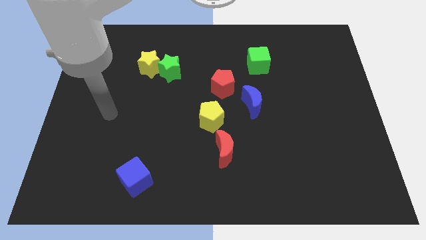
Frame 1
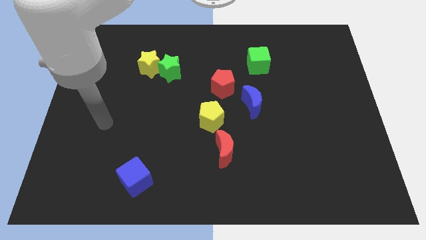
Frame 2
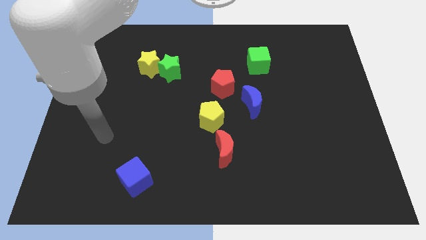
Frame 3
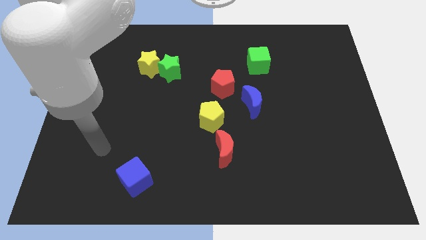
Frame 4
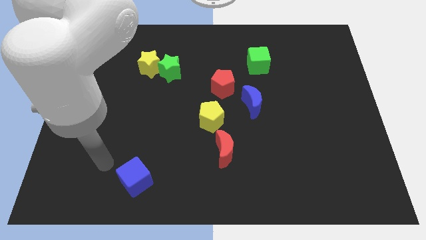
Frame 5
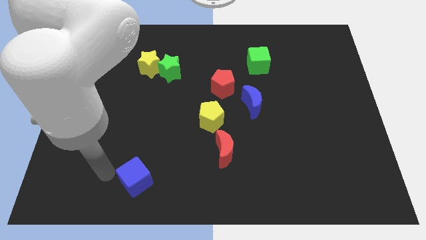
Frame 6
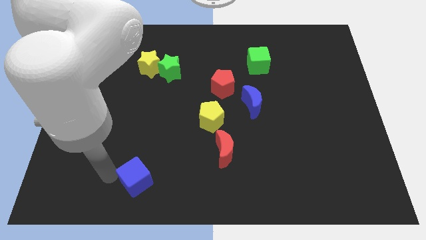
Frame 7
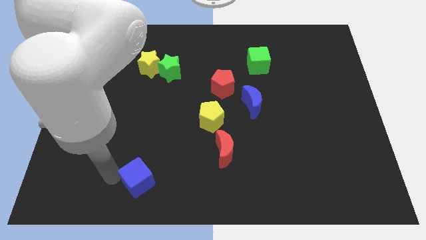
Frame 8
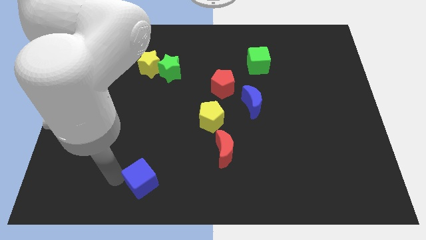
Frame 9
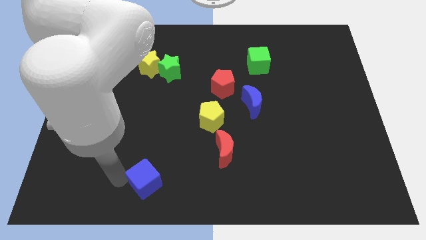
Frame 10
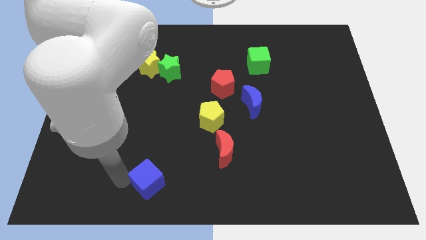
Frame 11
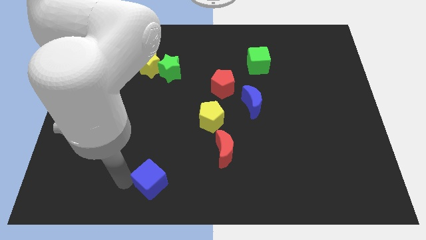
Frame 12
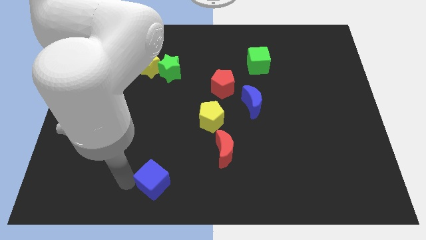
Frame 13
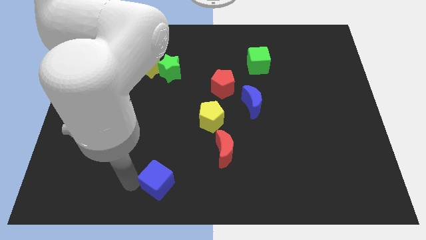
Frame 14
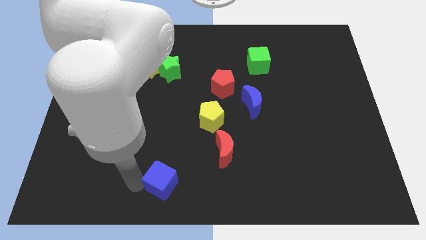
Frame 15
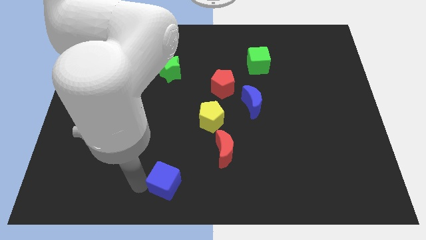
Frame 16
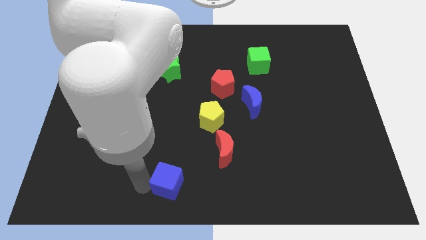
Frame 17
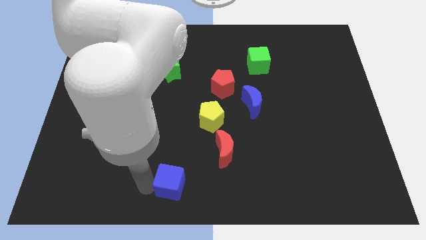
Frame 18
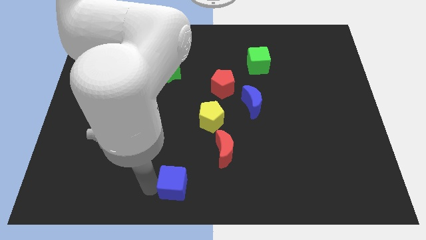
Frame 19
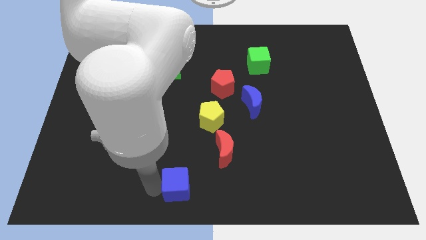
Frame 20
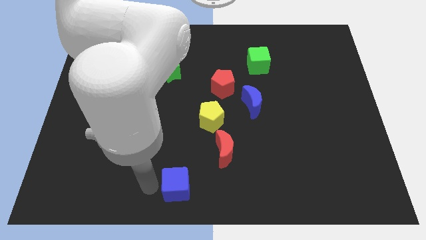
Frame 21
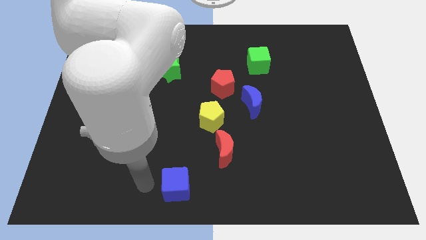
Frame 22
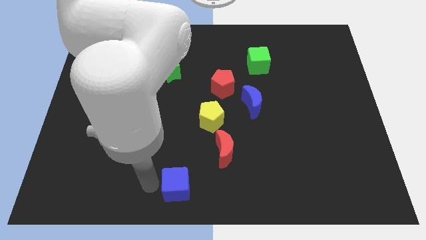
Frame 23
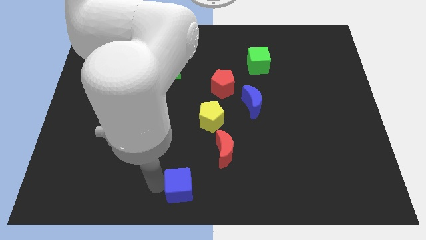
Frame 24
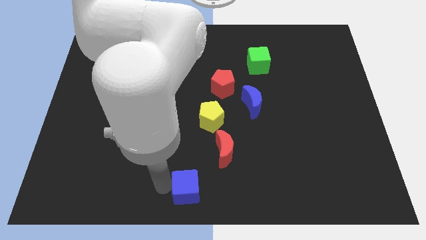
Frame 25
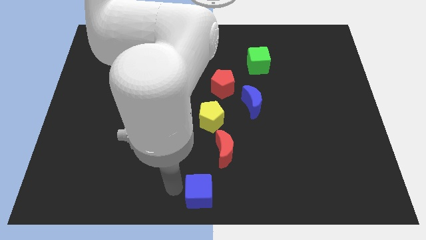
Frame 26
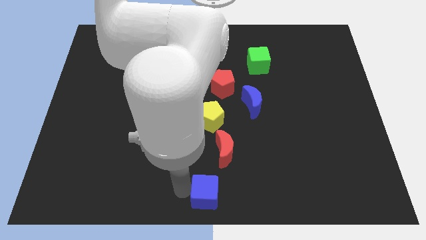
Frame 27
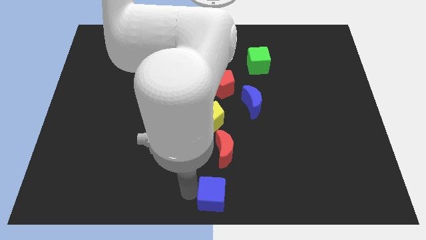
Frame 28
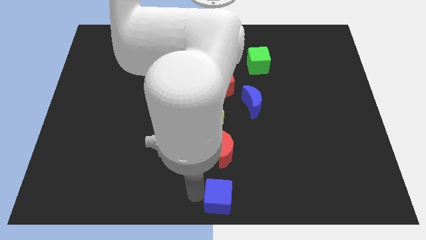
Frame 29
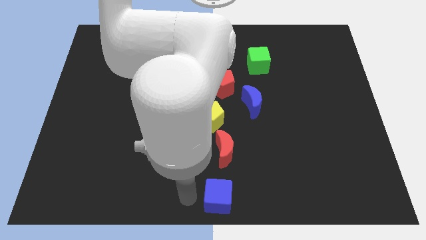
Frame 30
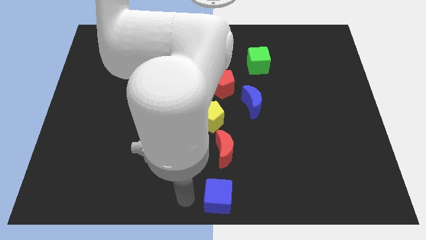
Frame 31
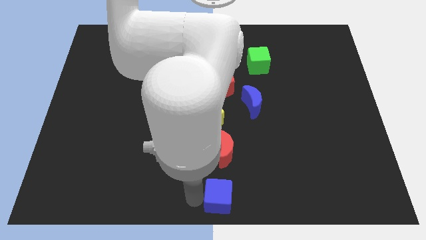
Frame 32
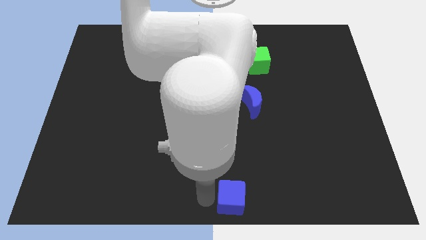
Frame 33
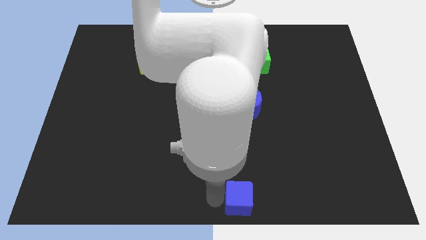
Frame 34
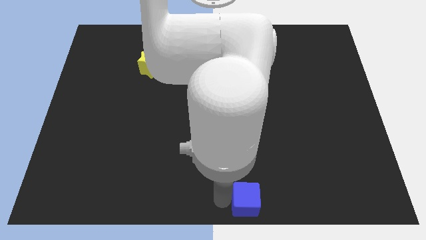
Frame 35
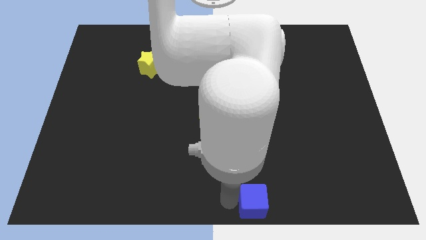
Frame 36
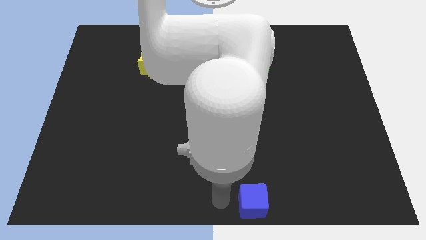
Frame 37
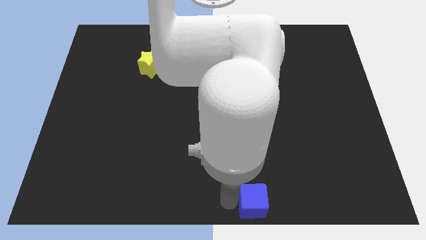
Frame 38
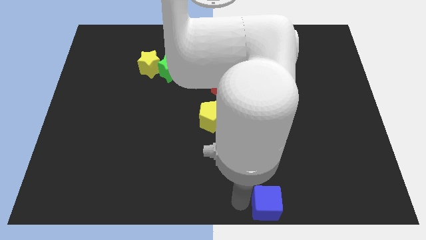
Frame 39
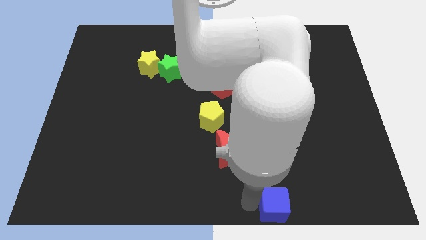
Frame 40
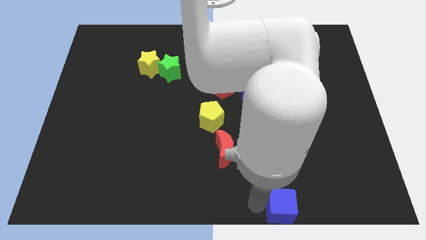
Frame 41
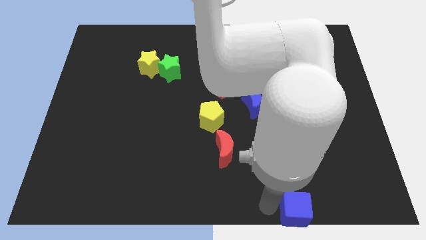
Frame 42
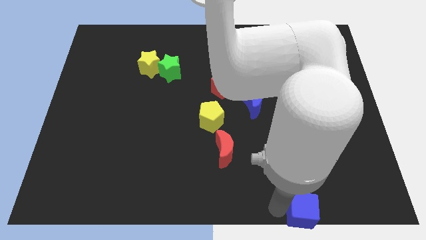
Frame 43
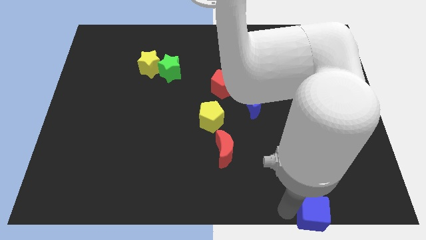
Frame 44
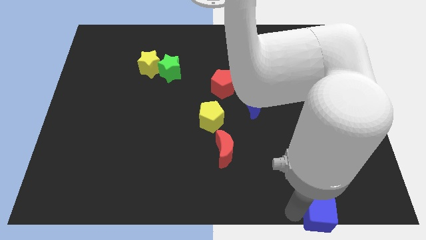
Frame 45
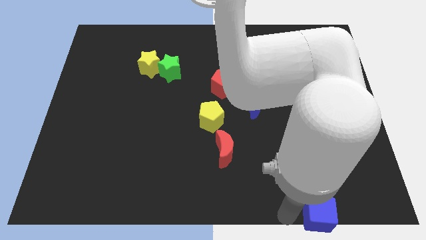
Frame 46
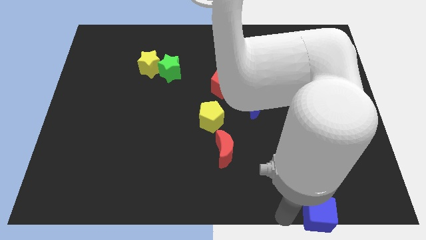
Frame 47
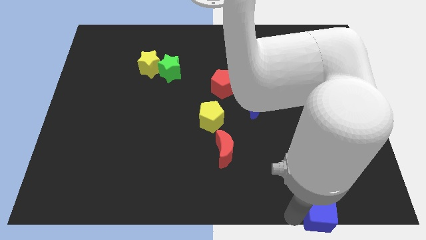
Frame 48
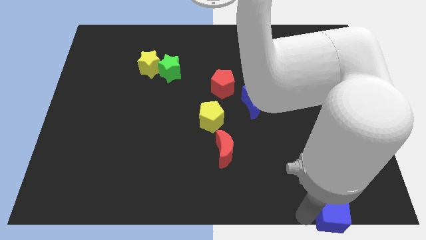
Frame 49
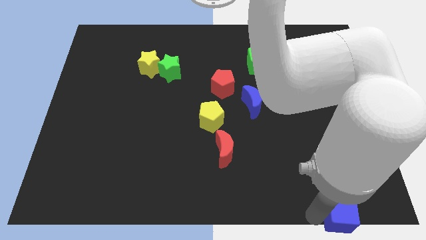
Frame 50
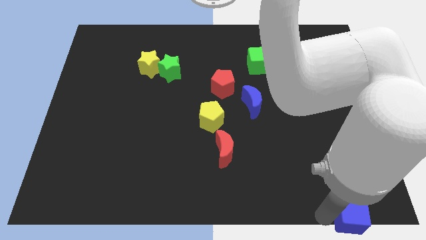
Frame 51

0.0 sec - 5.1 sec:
push the blue cube to the bottom right corner

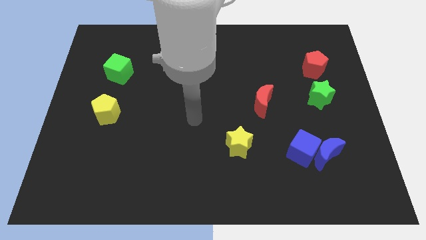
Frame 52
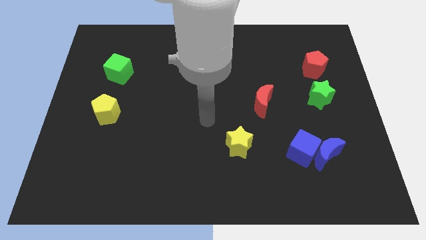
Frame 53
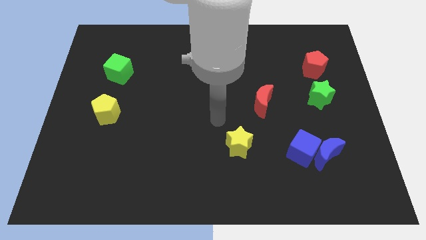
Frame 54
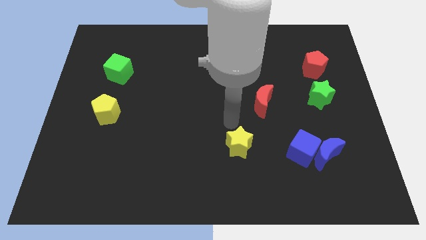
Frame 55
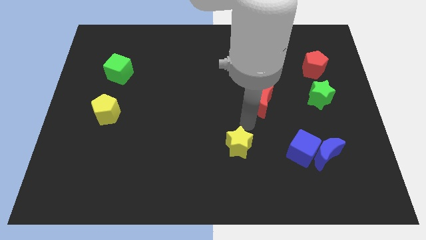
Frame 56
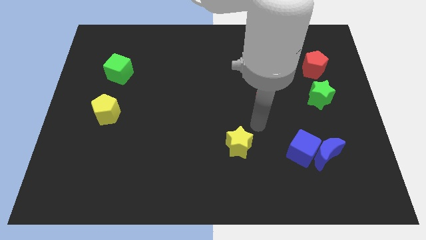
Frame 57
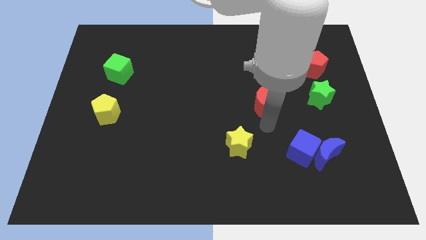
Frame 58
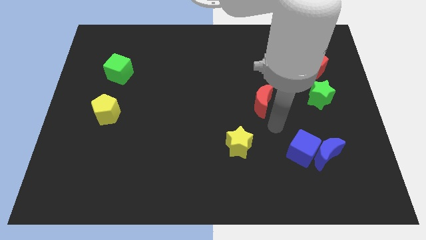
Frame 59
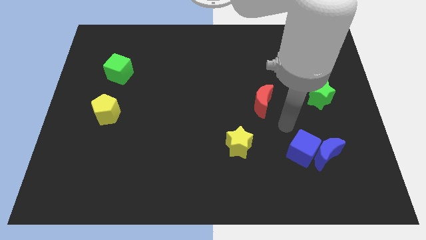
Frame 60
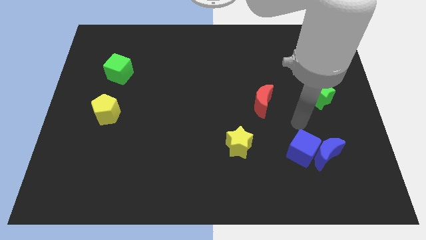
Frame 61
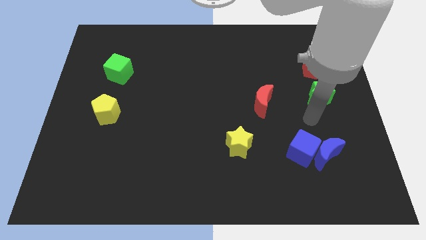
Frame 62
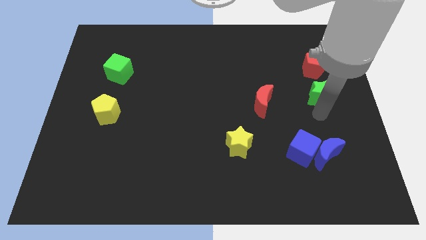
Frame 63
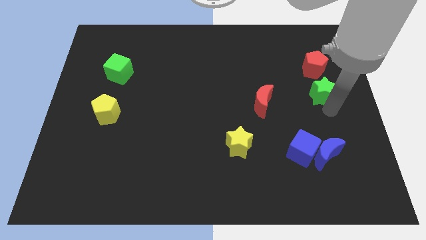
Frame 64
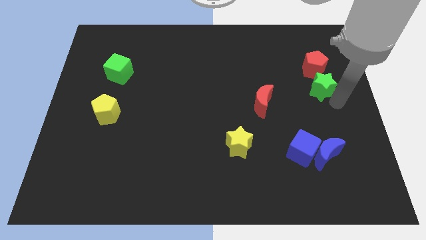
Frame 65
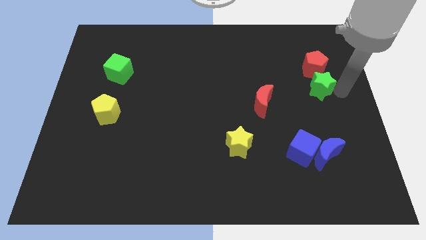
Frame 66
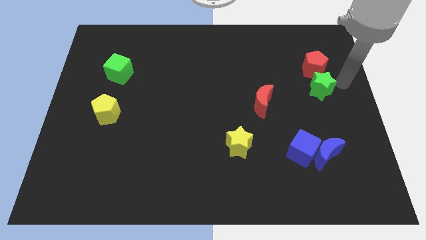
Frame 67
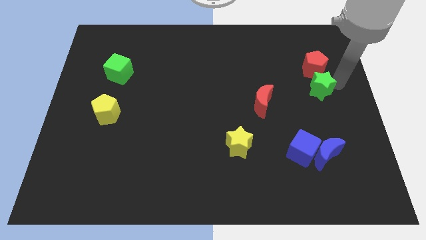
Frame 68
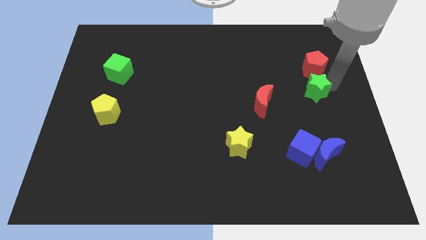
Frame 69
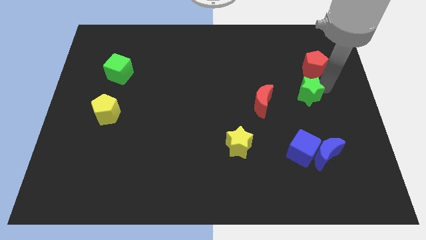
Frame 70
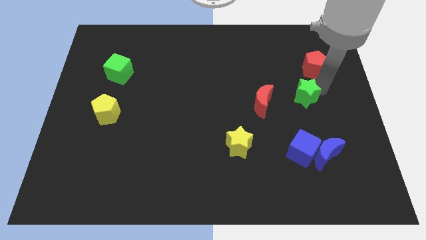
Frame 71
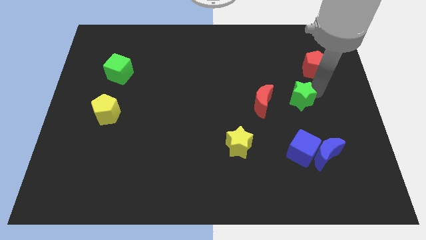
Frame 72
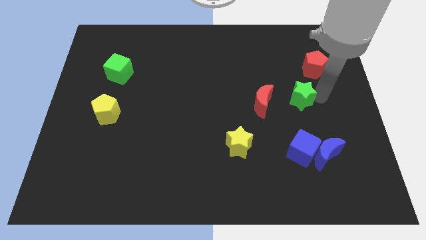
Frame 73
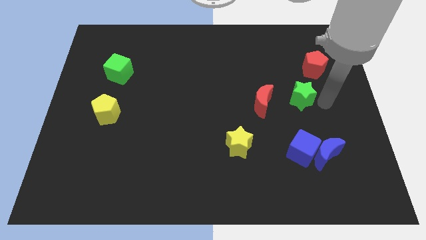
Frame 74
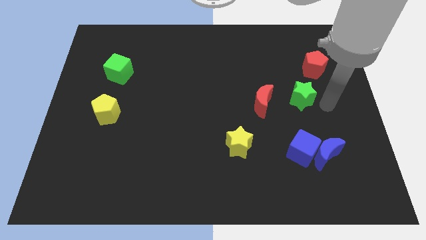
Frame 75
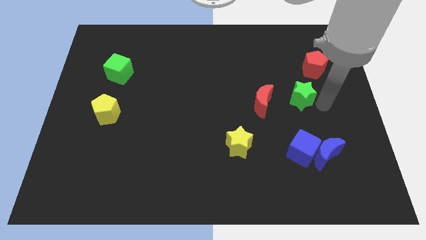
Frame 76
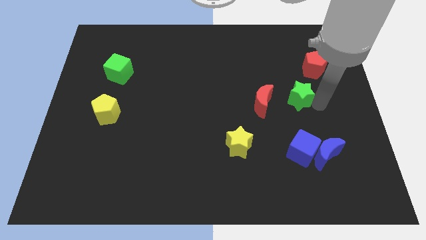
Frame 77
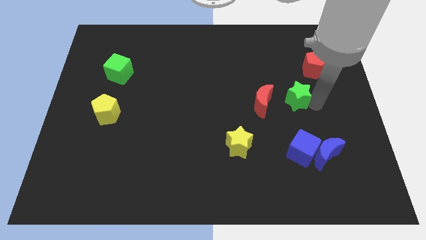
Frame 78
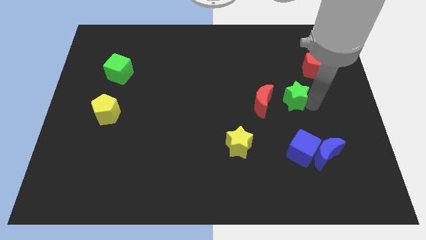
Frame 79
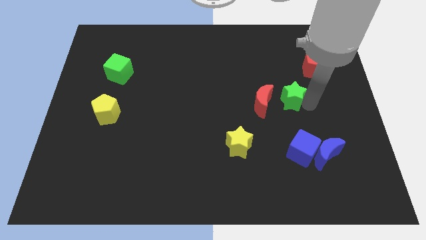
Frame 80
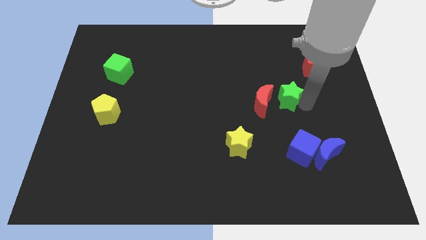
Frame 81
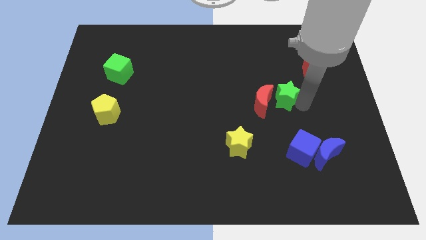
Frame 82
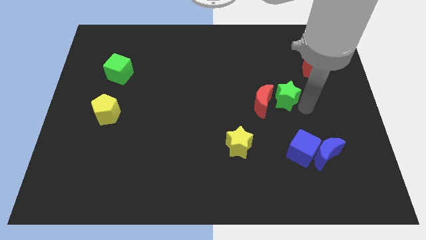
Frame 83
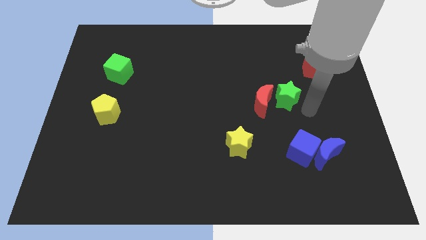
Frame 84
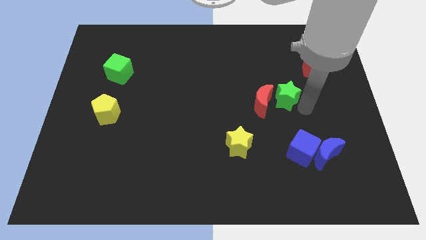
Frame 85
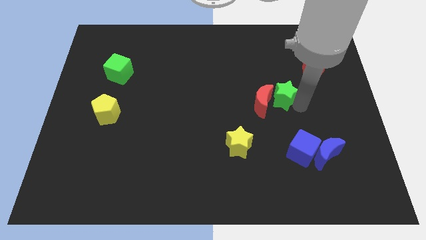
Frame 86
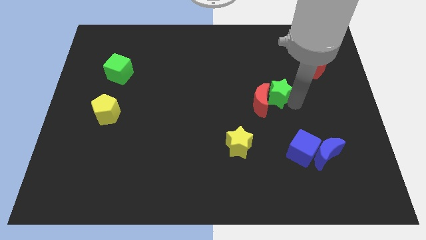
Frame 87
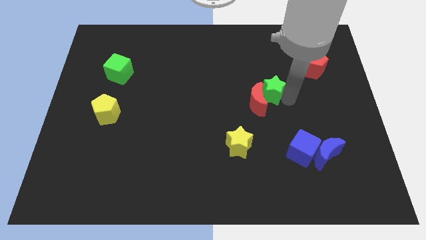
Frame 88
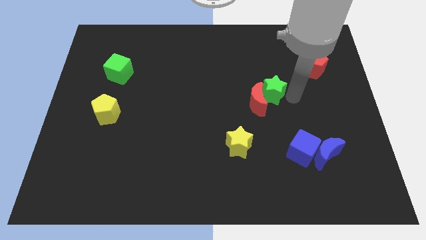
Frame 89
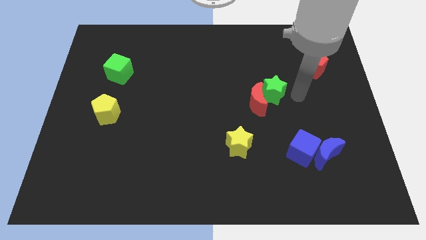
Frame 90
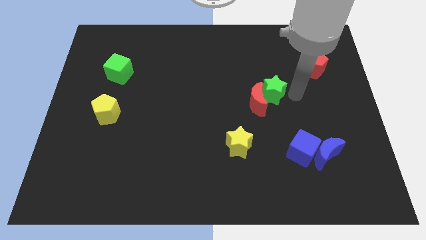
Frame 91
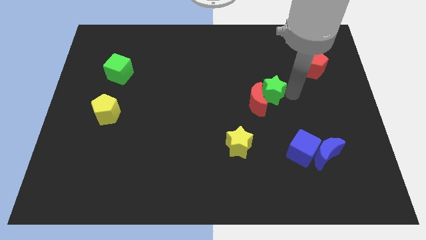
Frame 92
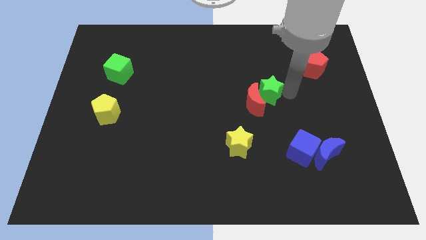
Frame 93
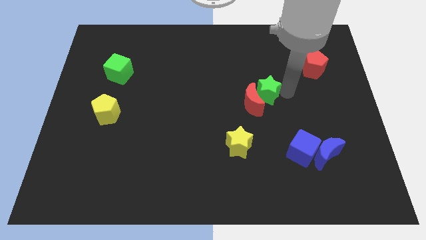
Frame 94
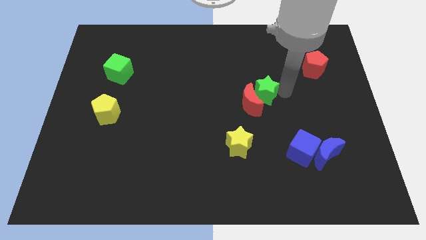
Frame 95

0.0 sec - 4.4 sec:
put the green star to the center of the board
